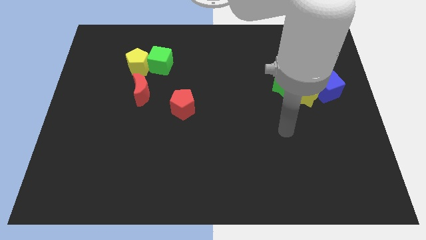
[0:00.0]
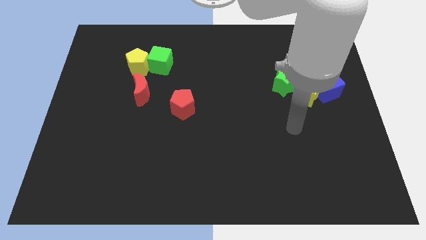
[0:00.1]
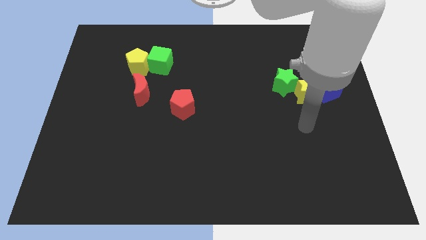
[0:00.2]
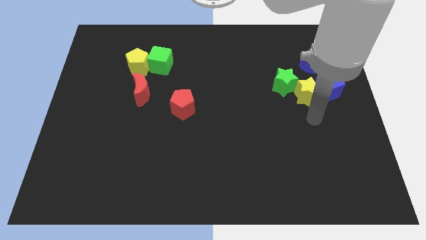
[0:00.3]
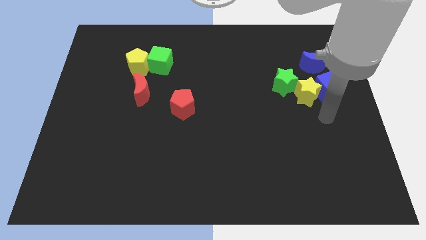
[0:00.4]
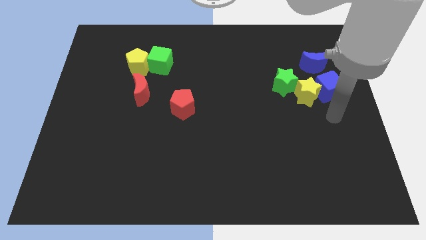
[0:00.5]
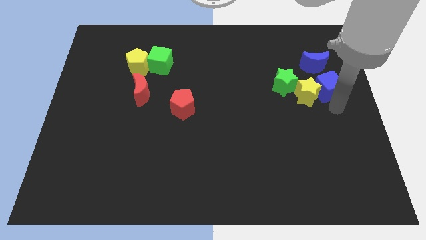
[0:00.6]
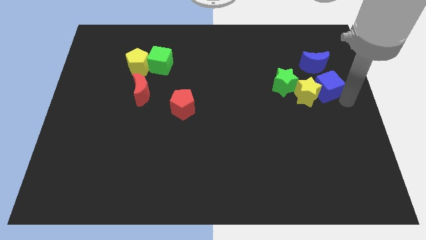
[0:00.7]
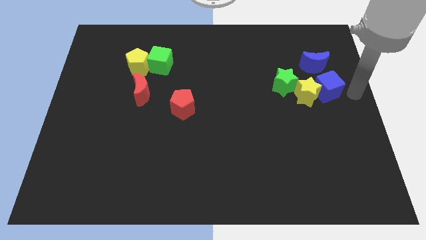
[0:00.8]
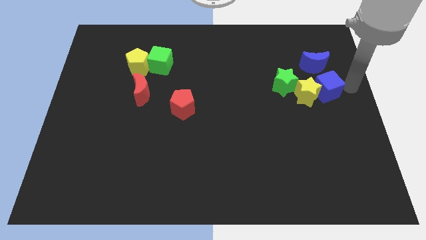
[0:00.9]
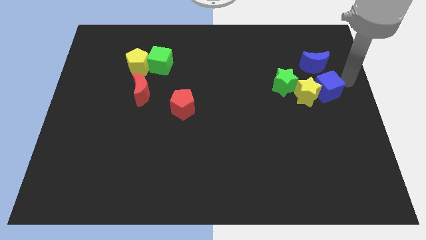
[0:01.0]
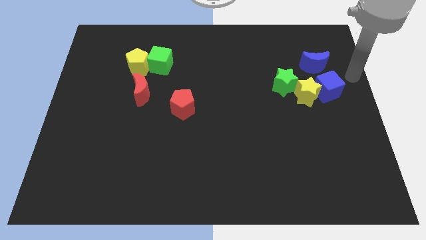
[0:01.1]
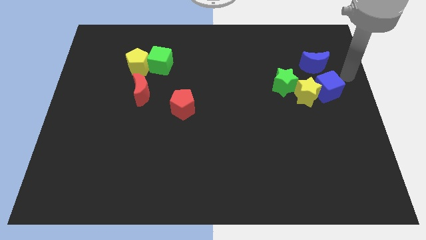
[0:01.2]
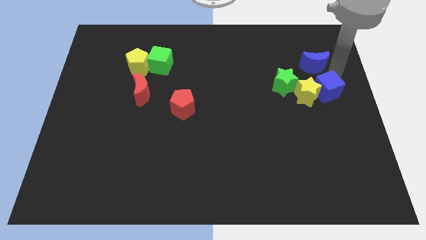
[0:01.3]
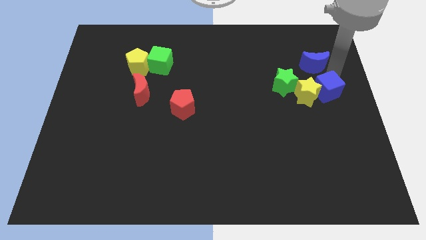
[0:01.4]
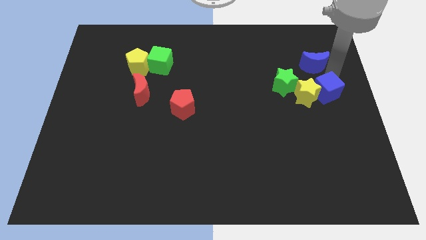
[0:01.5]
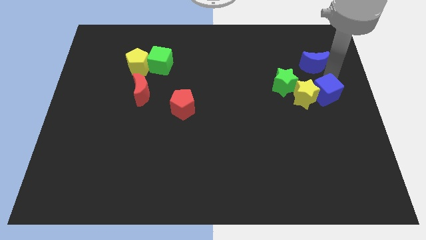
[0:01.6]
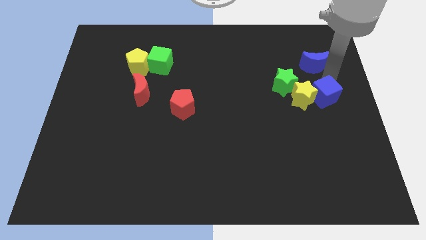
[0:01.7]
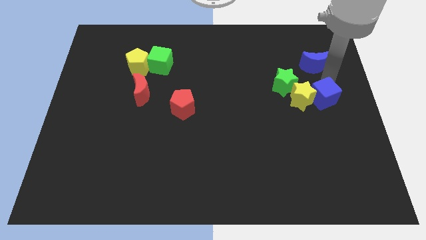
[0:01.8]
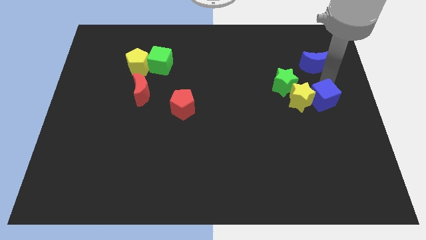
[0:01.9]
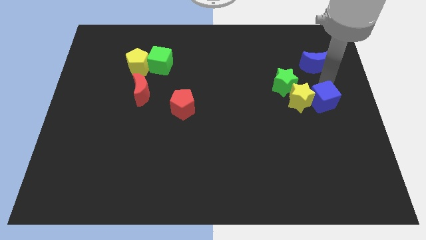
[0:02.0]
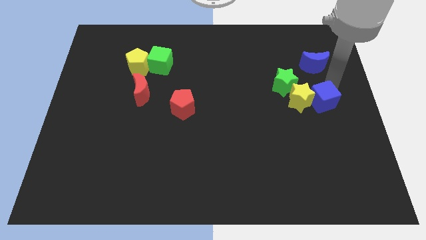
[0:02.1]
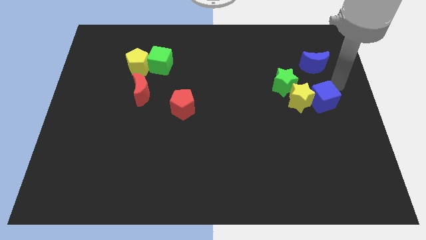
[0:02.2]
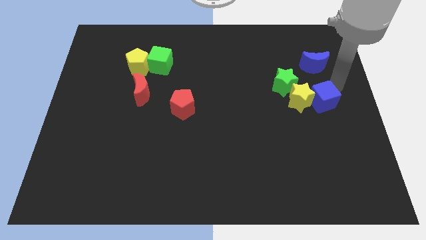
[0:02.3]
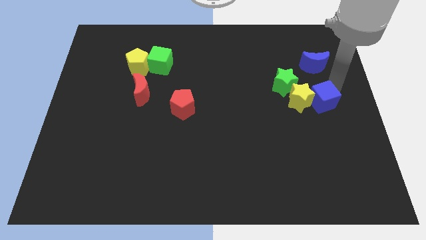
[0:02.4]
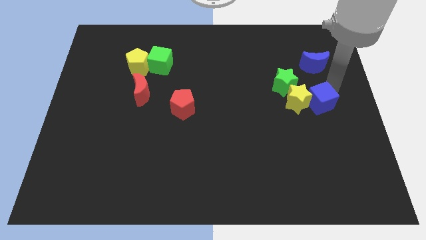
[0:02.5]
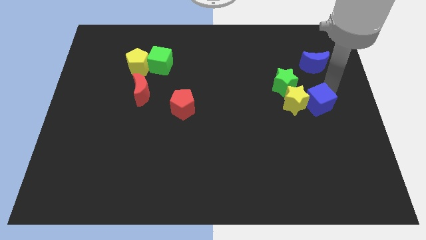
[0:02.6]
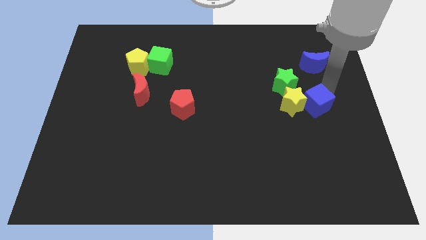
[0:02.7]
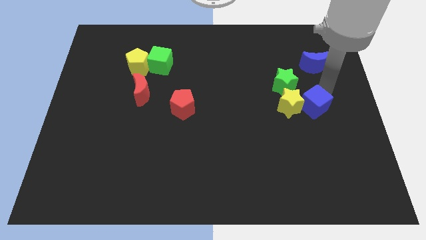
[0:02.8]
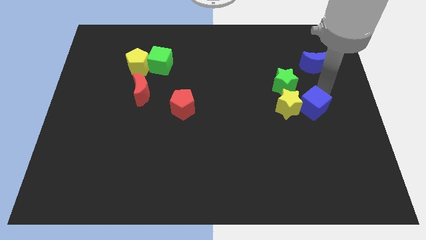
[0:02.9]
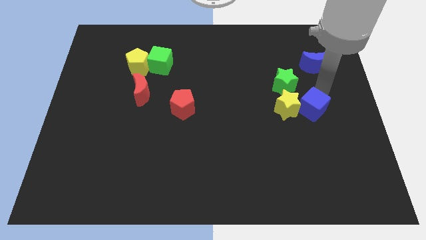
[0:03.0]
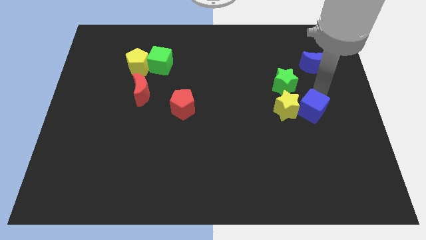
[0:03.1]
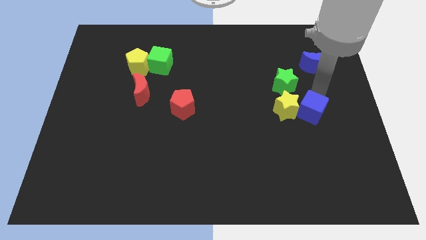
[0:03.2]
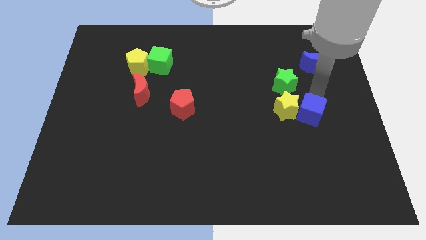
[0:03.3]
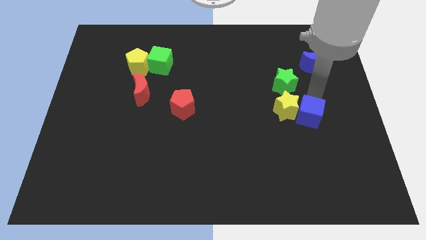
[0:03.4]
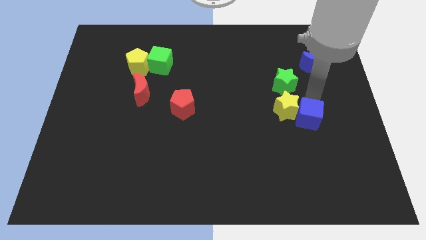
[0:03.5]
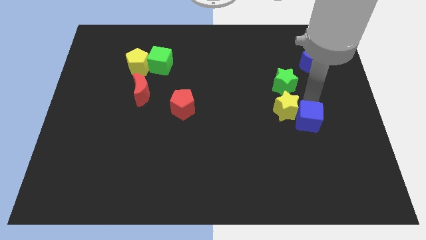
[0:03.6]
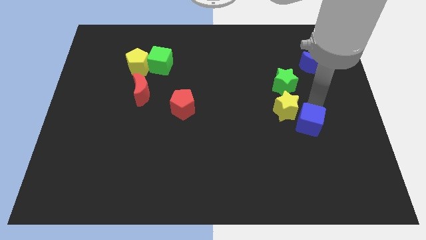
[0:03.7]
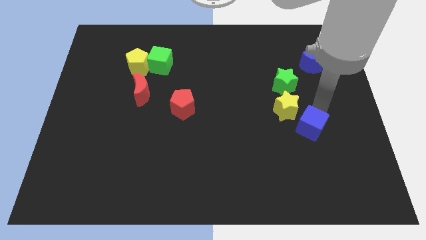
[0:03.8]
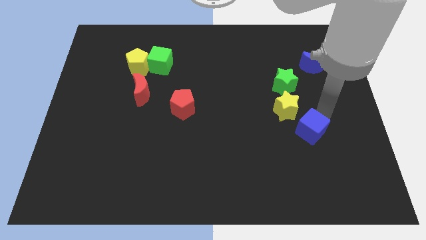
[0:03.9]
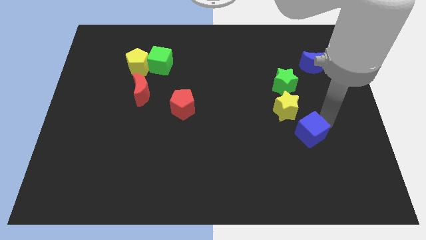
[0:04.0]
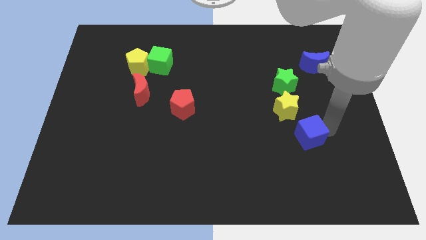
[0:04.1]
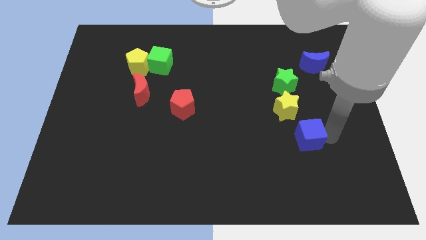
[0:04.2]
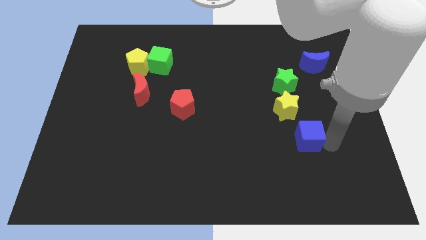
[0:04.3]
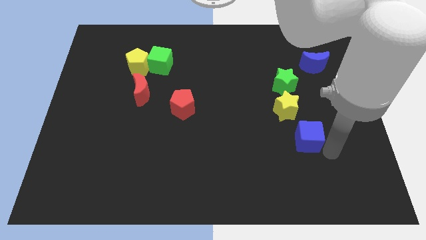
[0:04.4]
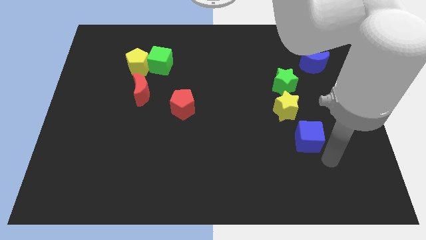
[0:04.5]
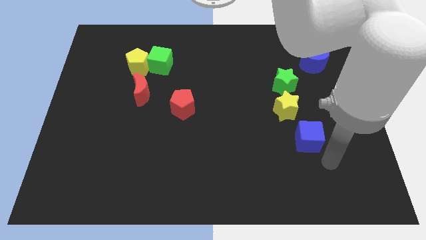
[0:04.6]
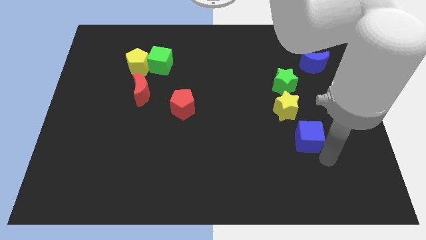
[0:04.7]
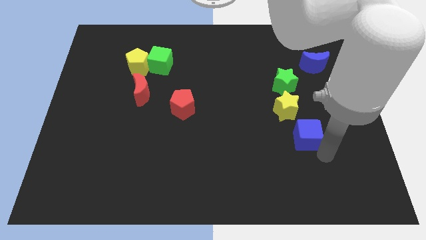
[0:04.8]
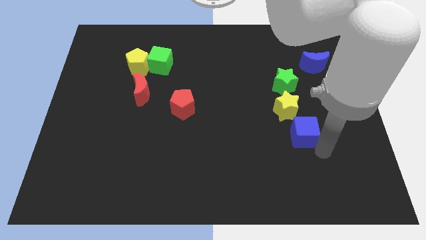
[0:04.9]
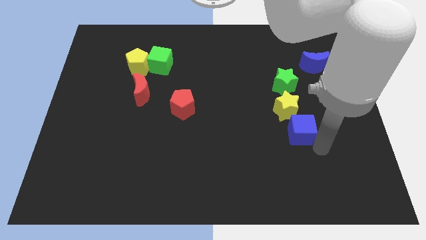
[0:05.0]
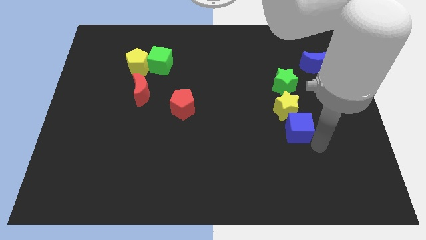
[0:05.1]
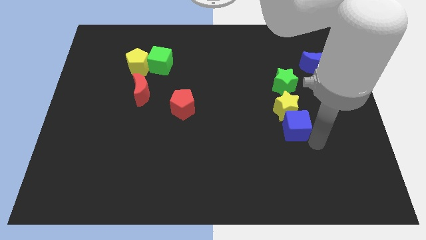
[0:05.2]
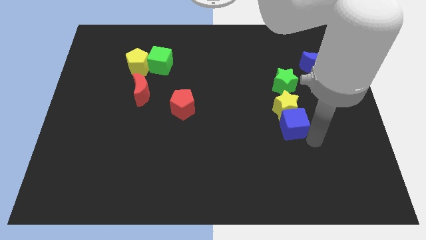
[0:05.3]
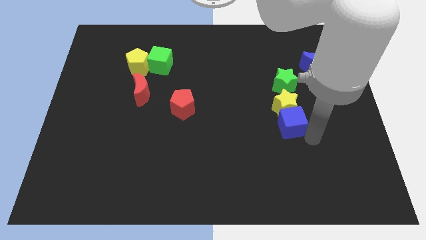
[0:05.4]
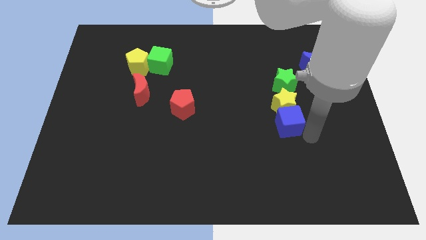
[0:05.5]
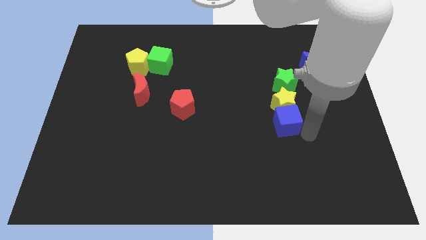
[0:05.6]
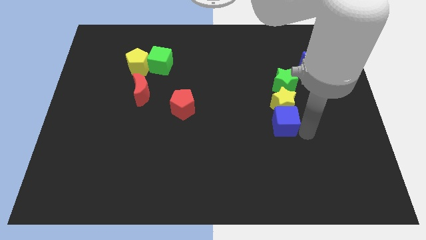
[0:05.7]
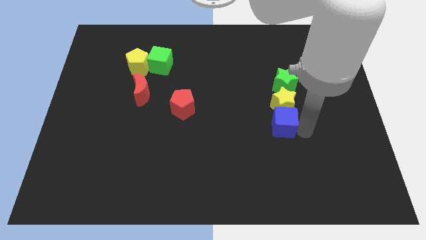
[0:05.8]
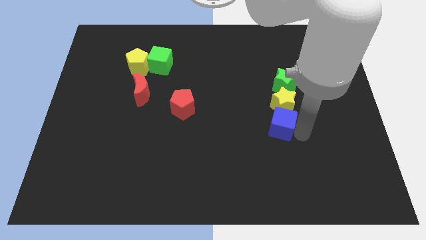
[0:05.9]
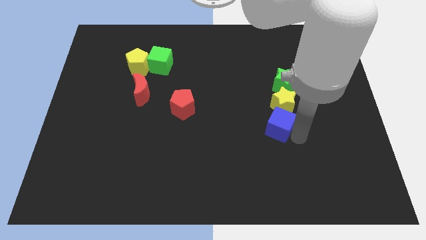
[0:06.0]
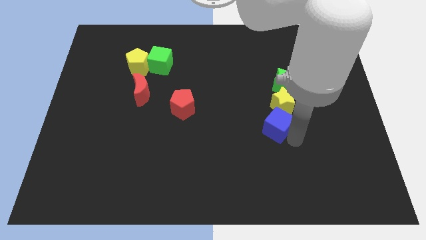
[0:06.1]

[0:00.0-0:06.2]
slide the blue cube left a bit

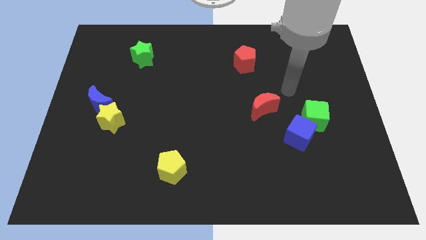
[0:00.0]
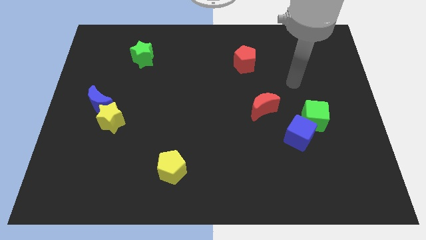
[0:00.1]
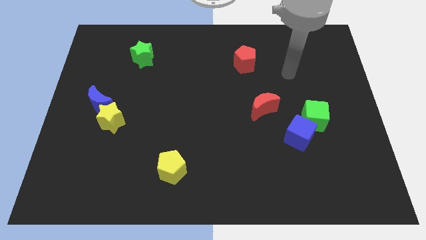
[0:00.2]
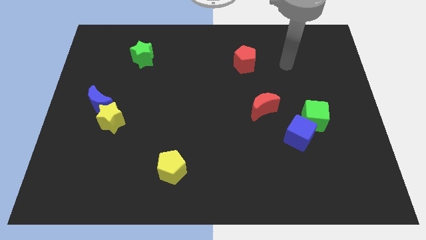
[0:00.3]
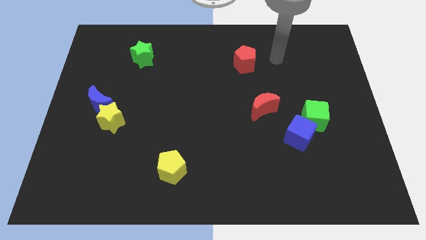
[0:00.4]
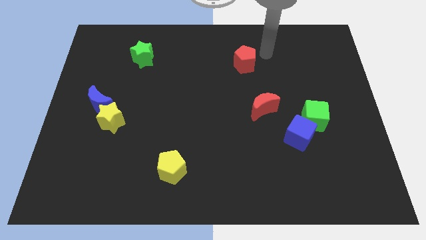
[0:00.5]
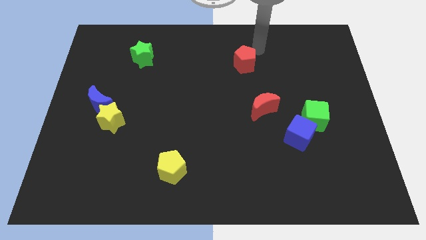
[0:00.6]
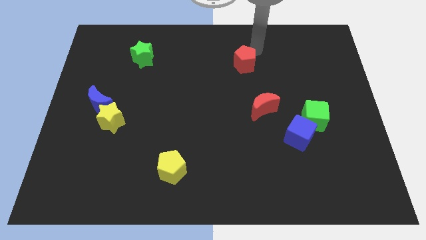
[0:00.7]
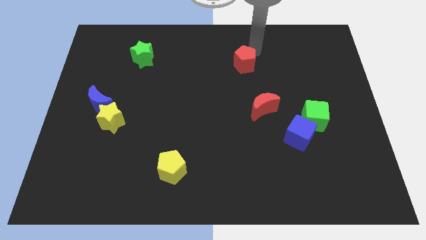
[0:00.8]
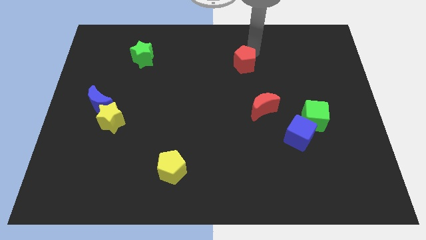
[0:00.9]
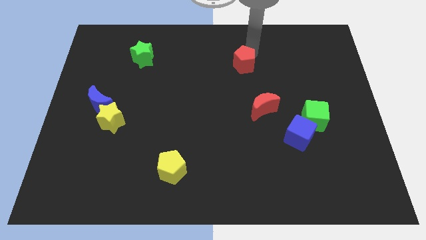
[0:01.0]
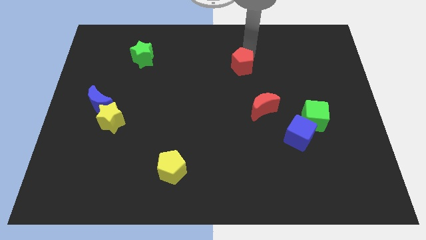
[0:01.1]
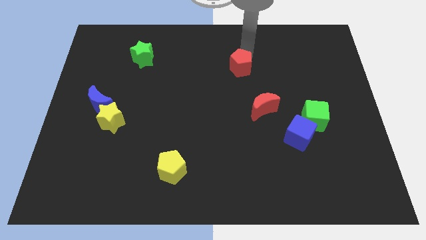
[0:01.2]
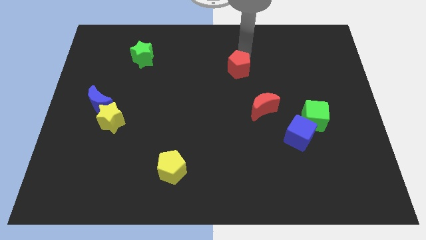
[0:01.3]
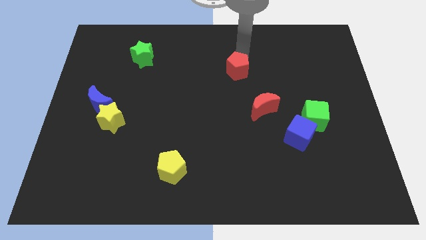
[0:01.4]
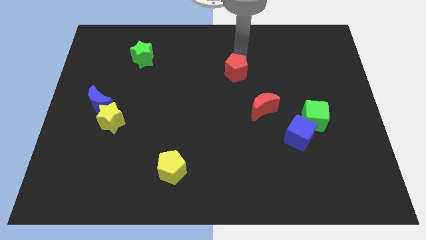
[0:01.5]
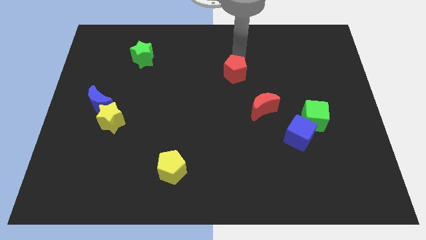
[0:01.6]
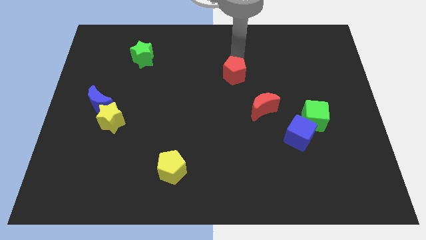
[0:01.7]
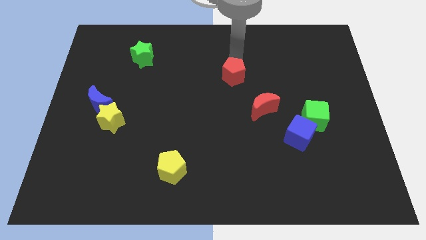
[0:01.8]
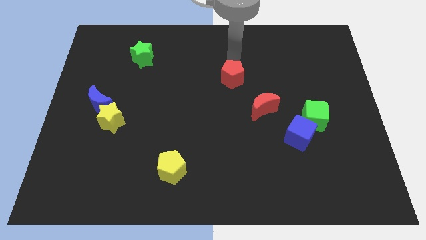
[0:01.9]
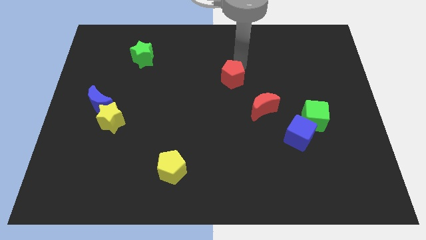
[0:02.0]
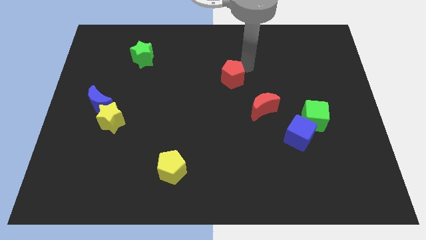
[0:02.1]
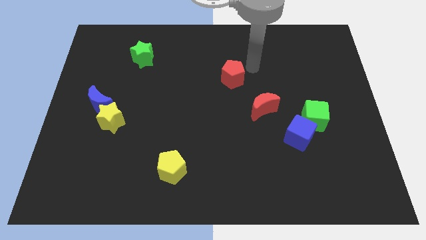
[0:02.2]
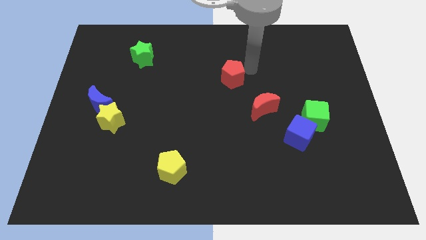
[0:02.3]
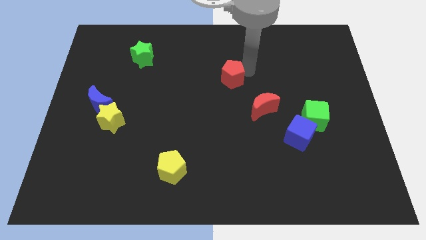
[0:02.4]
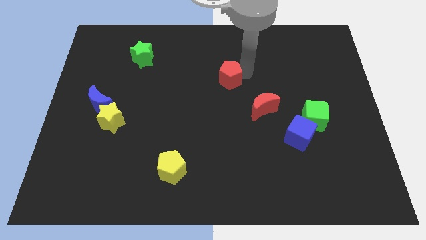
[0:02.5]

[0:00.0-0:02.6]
slide the red pentagon a little downwards and to the left diagonally
